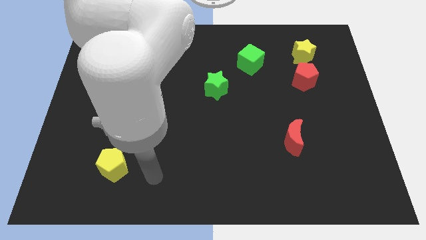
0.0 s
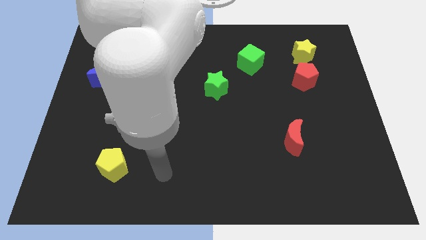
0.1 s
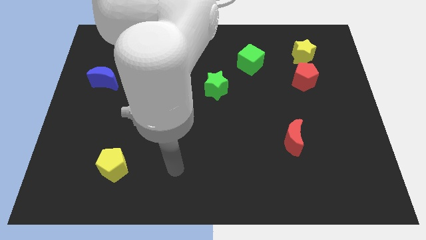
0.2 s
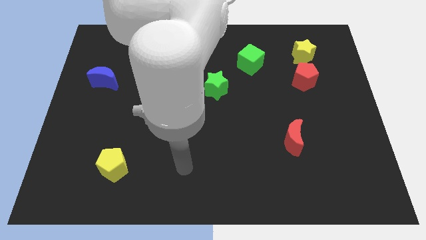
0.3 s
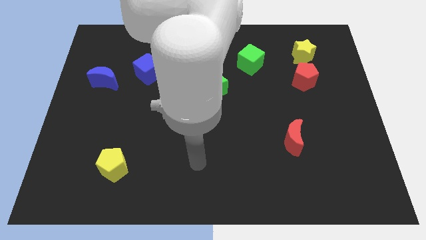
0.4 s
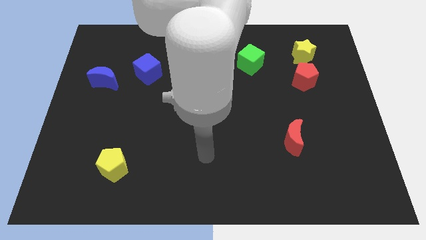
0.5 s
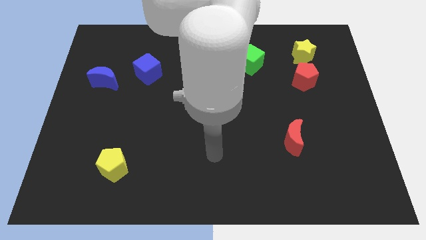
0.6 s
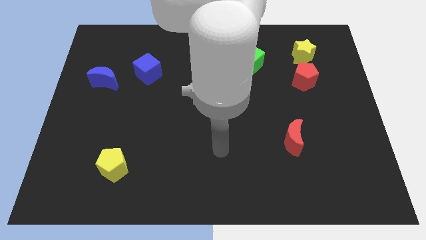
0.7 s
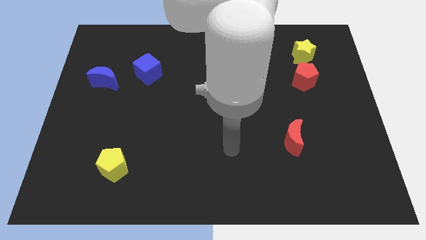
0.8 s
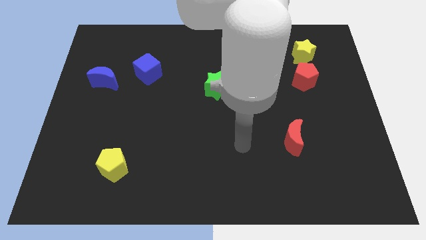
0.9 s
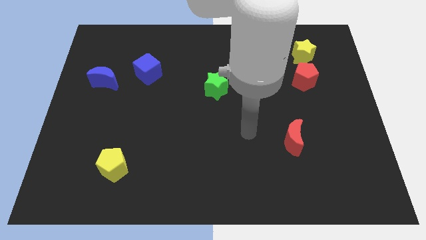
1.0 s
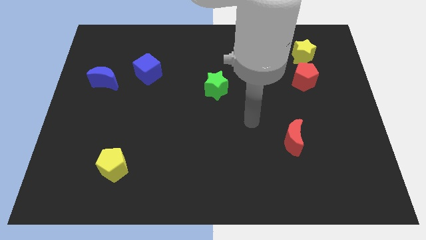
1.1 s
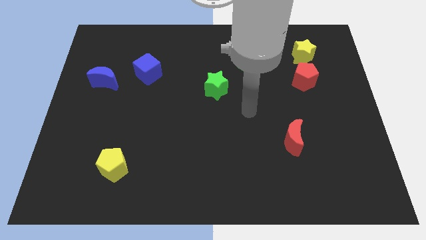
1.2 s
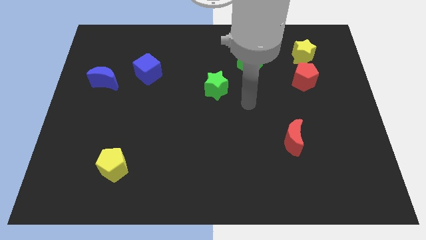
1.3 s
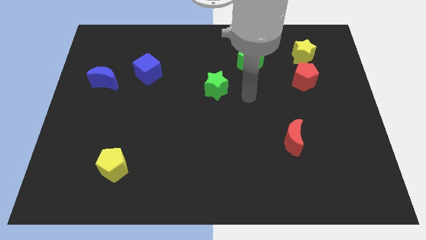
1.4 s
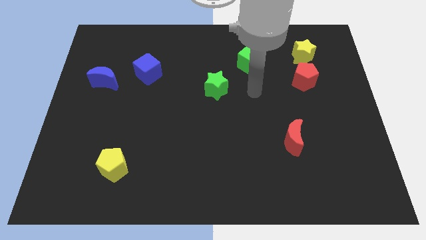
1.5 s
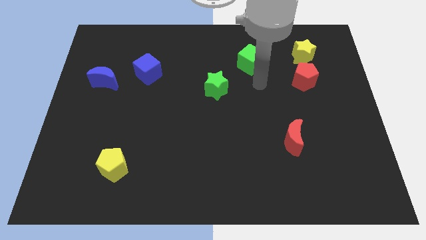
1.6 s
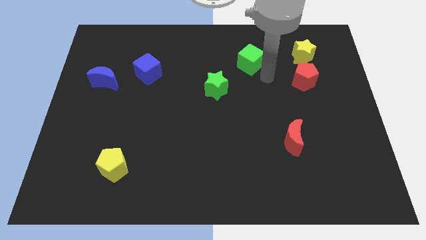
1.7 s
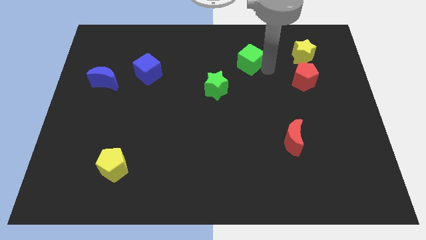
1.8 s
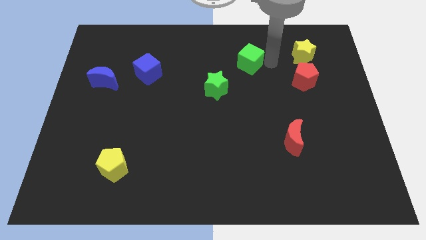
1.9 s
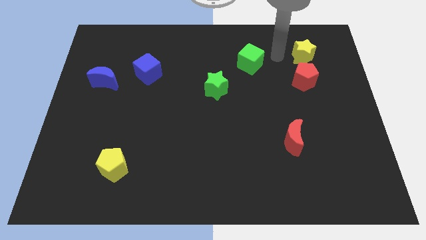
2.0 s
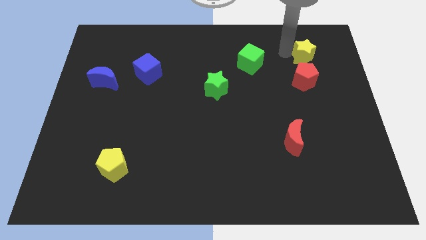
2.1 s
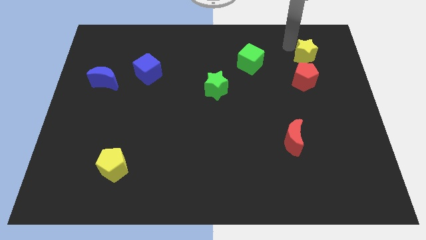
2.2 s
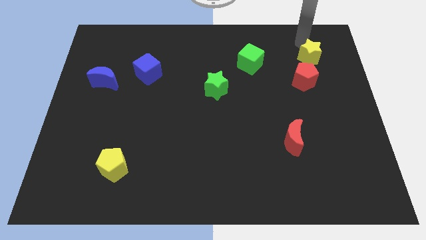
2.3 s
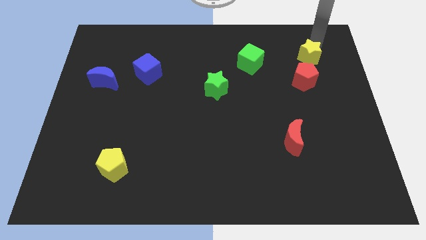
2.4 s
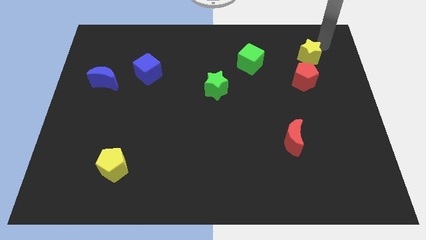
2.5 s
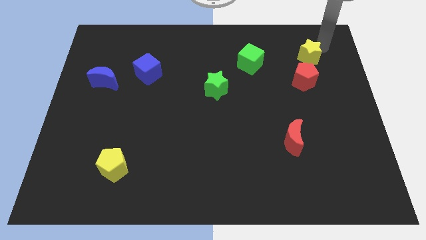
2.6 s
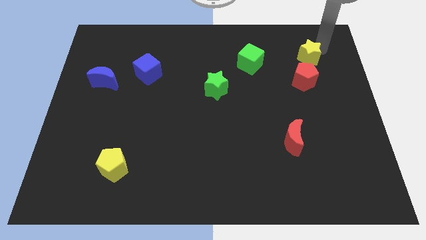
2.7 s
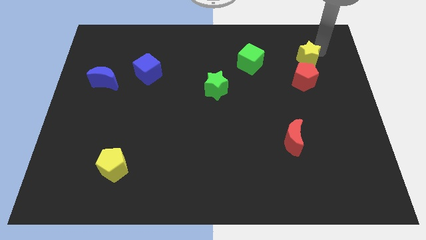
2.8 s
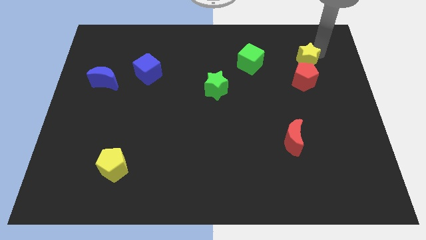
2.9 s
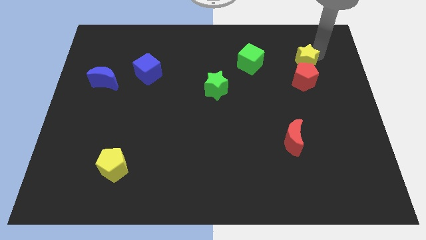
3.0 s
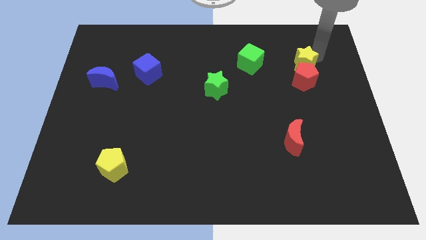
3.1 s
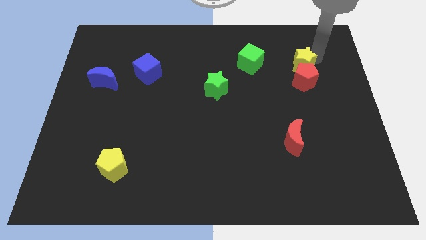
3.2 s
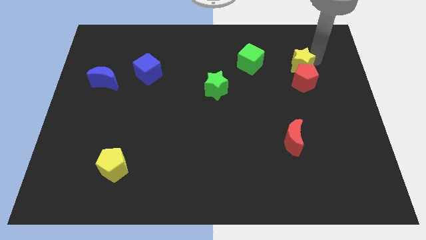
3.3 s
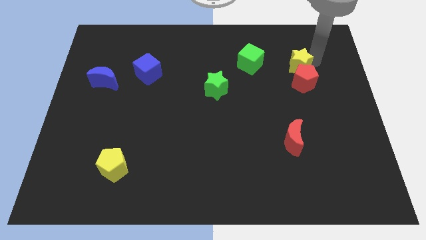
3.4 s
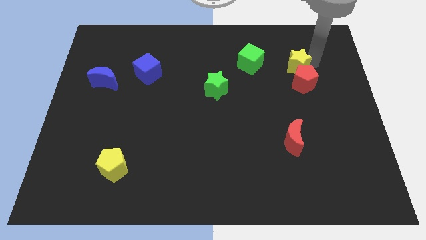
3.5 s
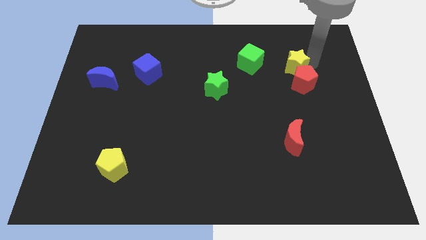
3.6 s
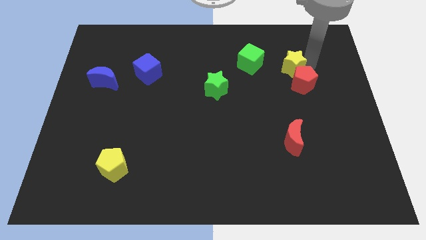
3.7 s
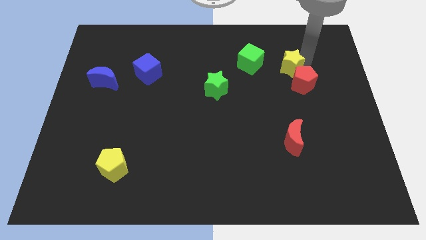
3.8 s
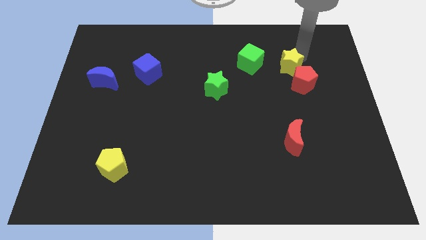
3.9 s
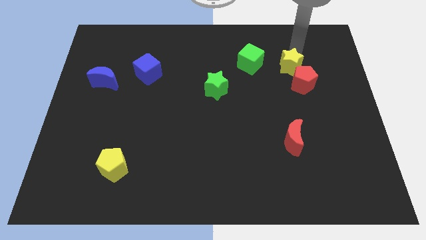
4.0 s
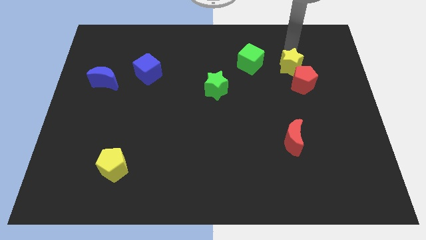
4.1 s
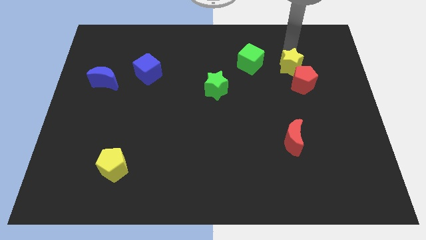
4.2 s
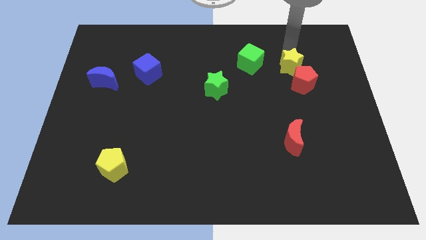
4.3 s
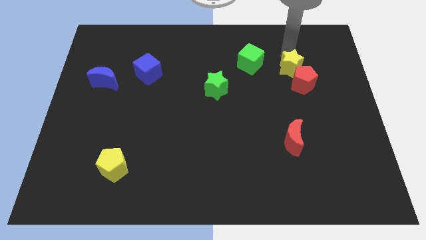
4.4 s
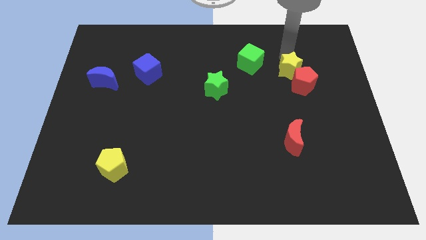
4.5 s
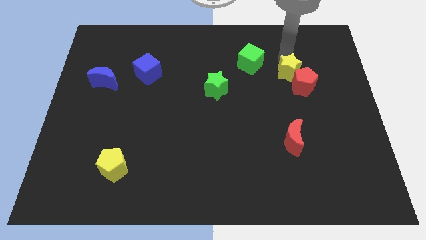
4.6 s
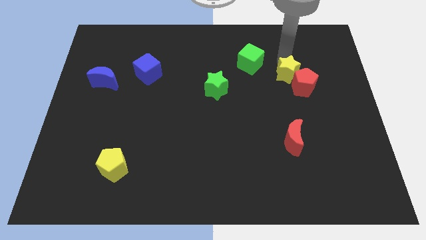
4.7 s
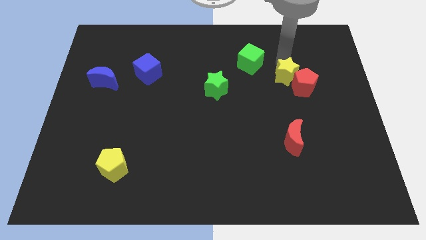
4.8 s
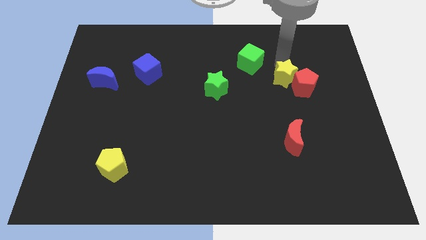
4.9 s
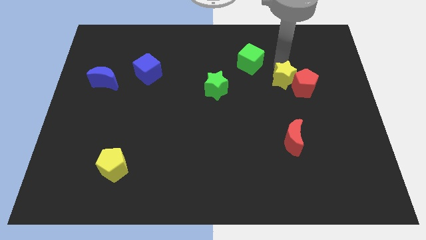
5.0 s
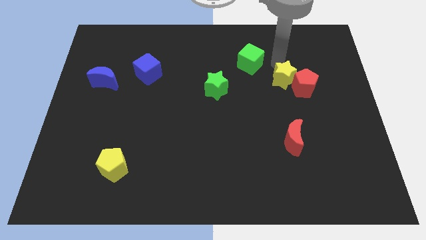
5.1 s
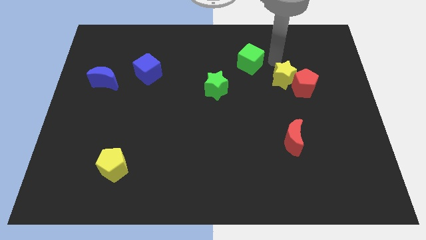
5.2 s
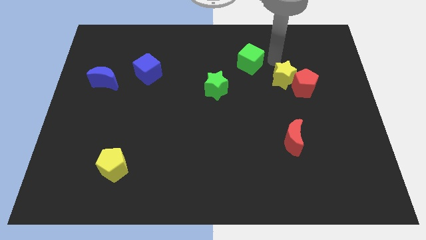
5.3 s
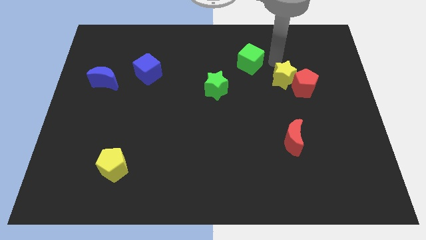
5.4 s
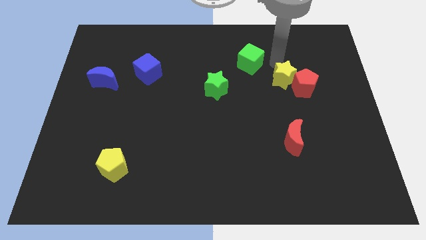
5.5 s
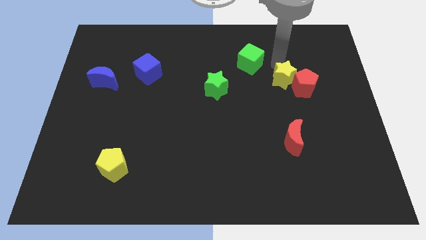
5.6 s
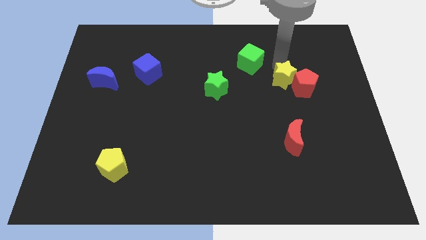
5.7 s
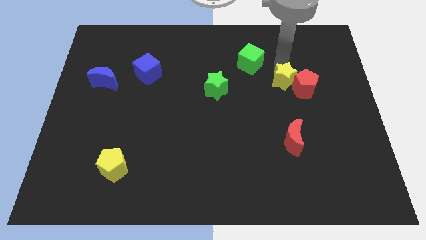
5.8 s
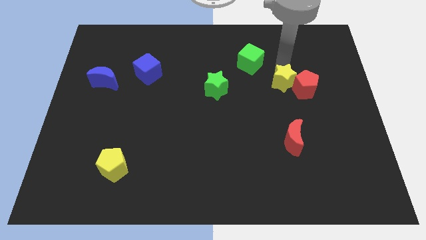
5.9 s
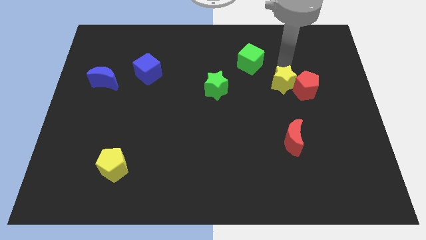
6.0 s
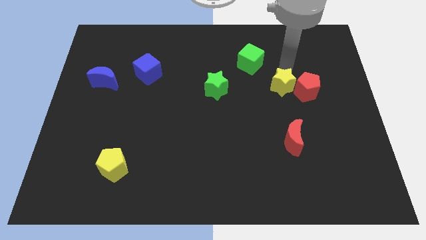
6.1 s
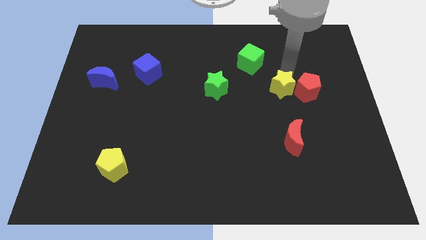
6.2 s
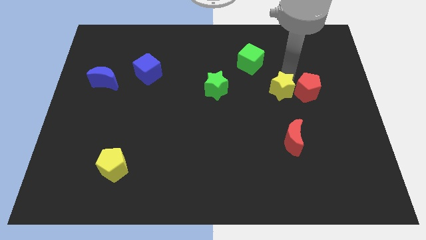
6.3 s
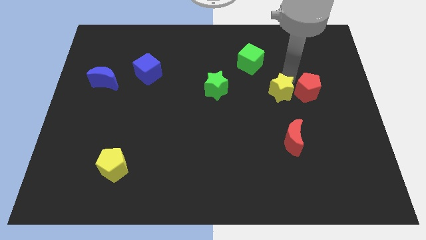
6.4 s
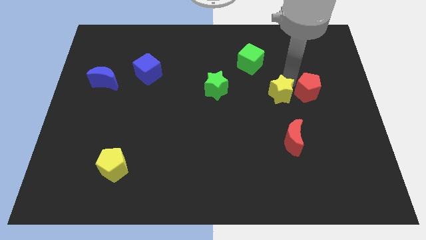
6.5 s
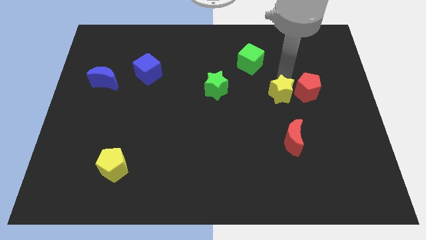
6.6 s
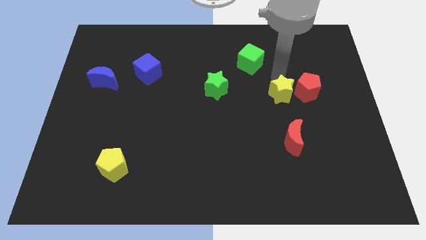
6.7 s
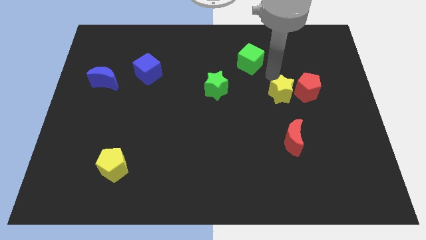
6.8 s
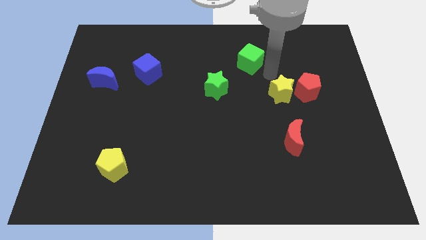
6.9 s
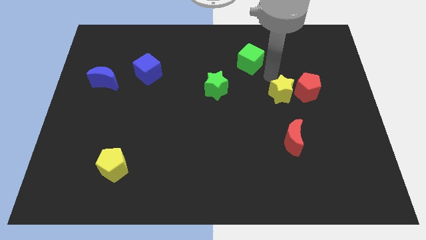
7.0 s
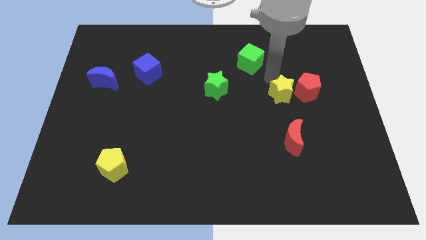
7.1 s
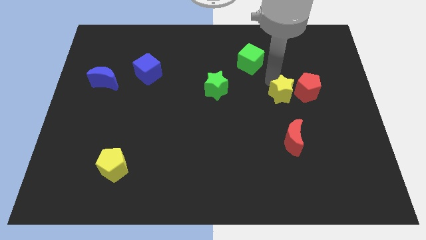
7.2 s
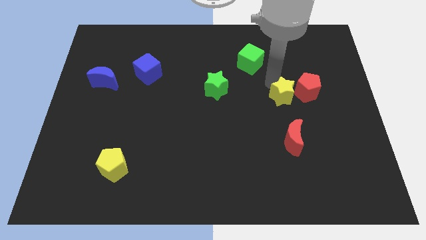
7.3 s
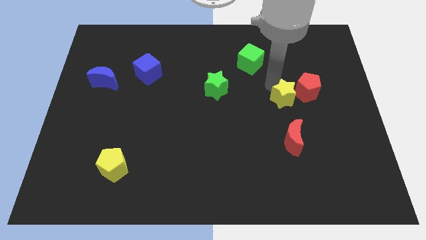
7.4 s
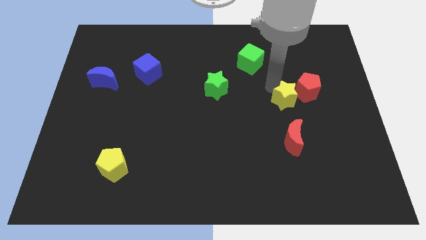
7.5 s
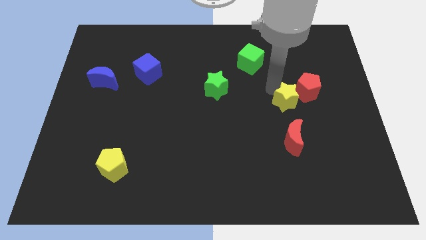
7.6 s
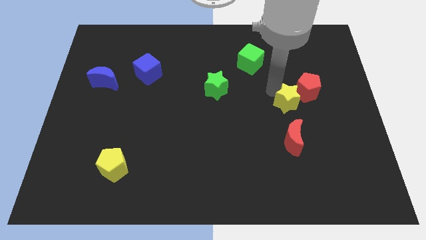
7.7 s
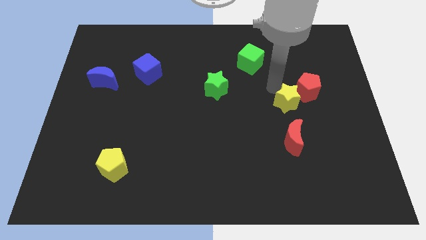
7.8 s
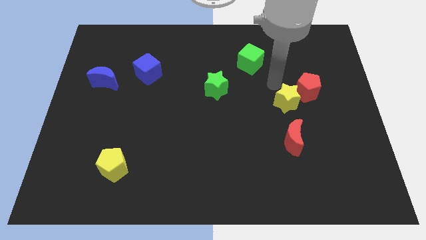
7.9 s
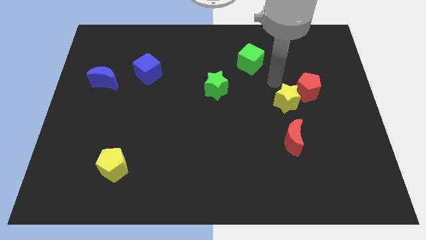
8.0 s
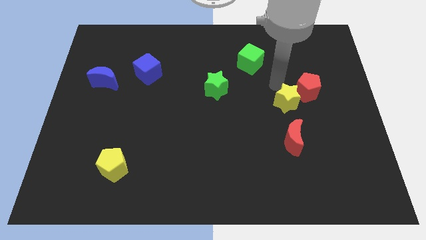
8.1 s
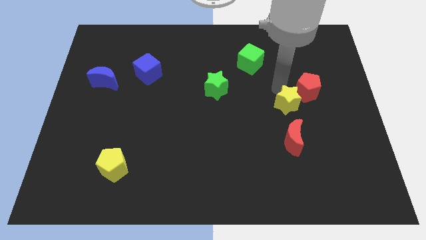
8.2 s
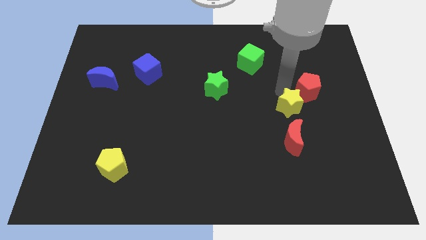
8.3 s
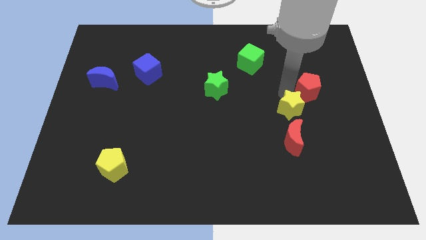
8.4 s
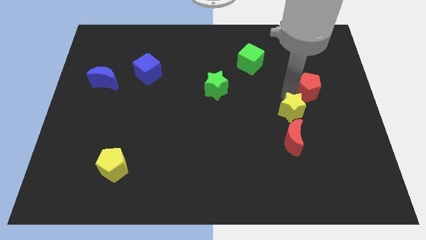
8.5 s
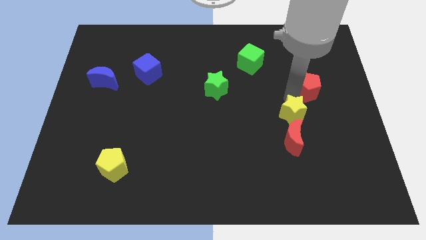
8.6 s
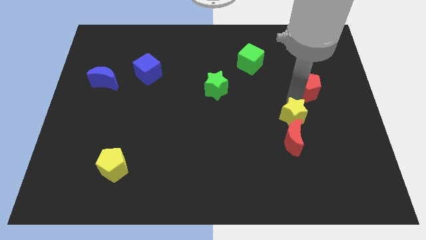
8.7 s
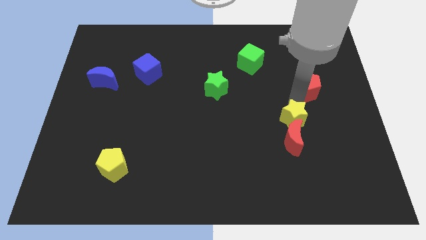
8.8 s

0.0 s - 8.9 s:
put the yellow star close to the red moon
